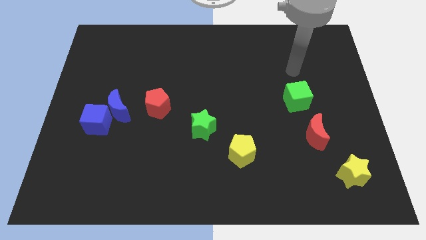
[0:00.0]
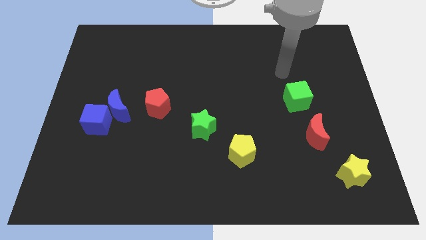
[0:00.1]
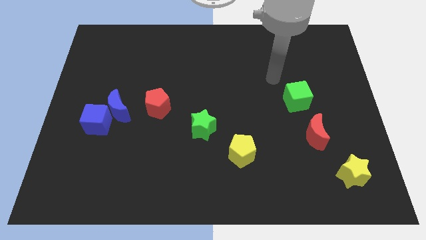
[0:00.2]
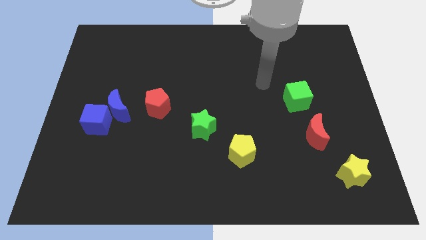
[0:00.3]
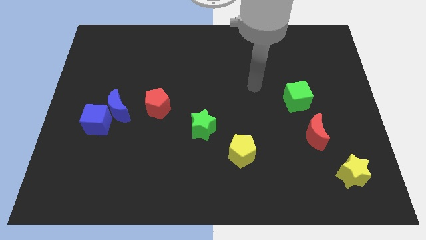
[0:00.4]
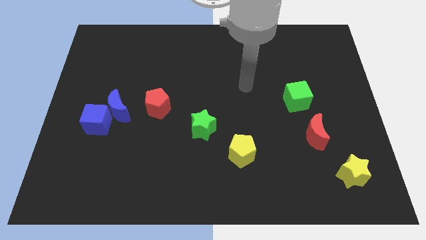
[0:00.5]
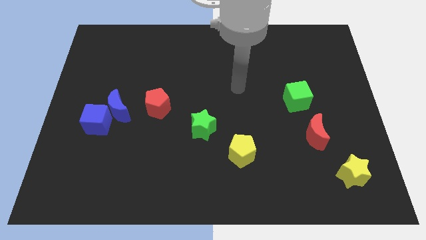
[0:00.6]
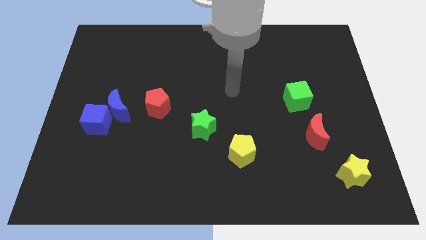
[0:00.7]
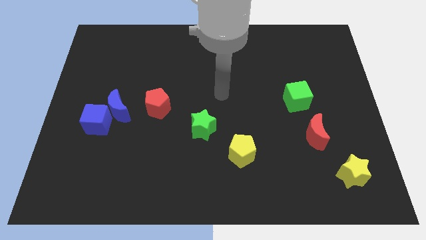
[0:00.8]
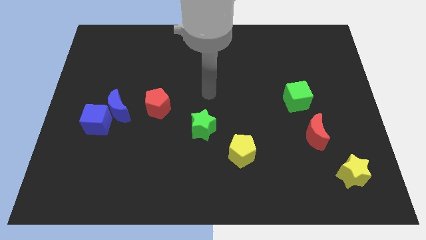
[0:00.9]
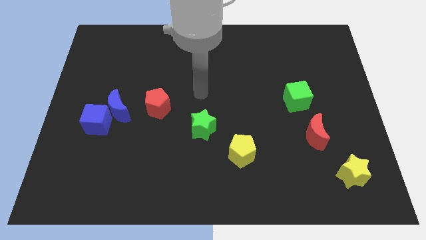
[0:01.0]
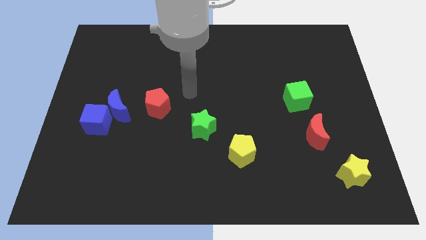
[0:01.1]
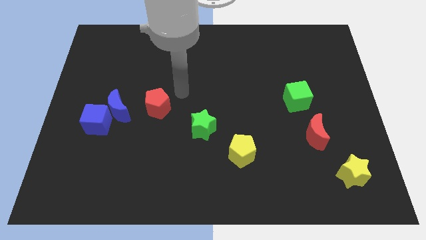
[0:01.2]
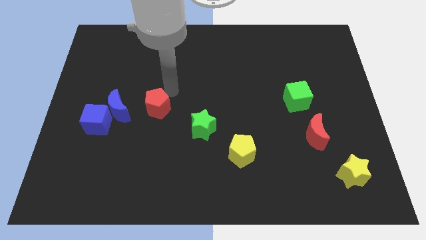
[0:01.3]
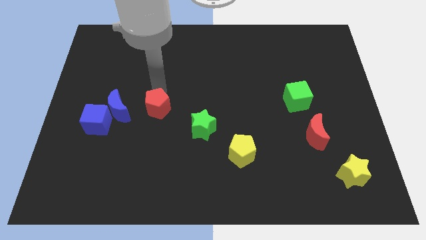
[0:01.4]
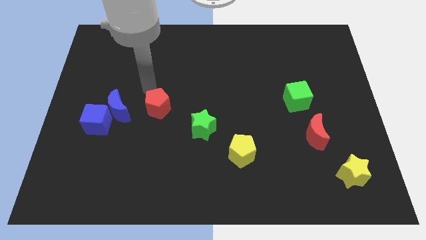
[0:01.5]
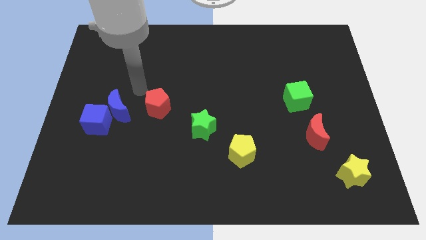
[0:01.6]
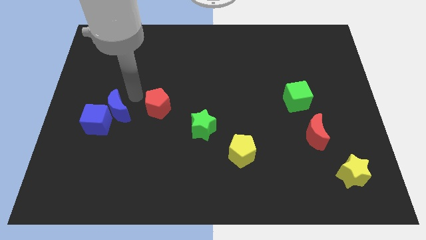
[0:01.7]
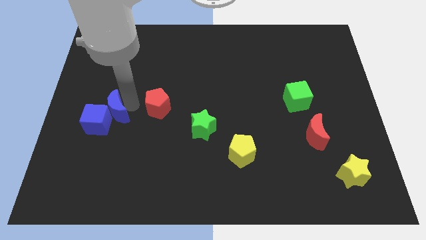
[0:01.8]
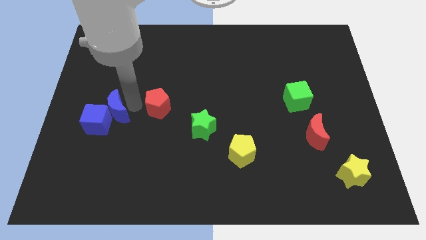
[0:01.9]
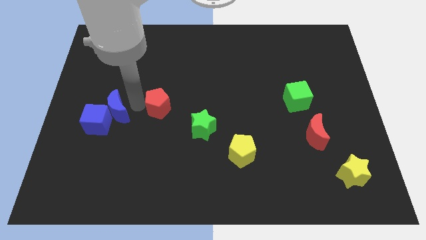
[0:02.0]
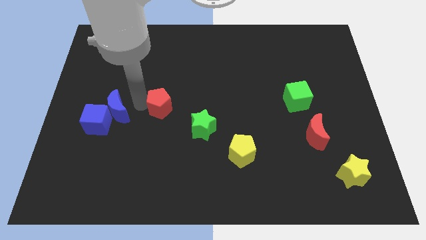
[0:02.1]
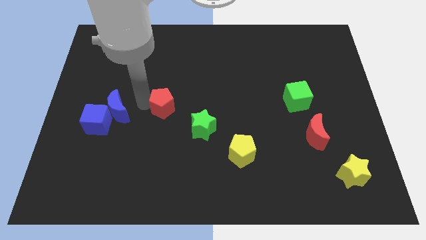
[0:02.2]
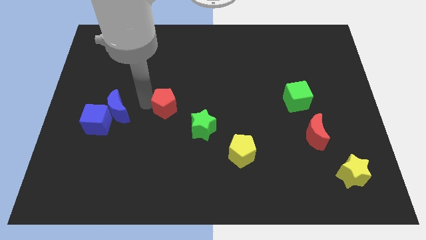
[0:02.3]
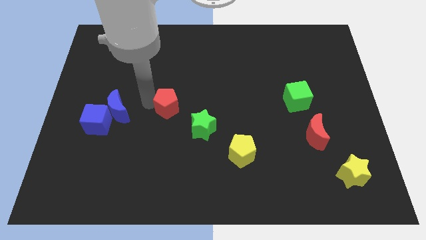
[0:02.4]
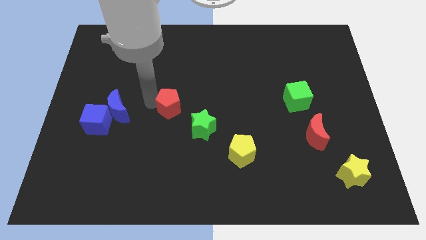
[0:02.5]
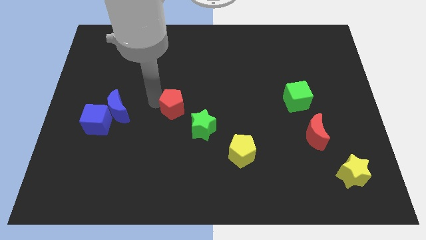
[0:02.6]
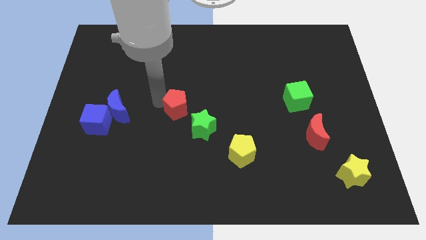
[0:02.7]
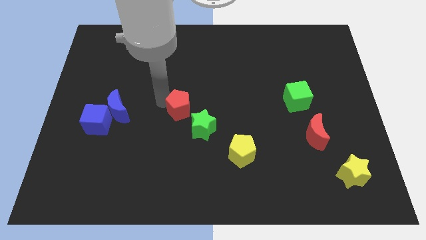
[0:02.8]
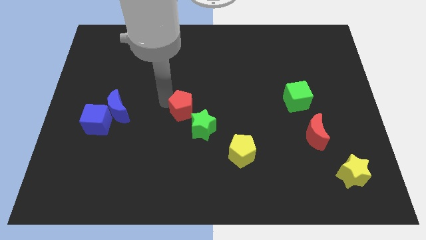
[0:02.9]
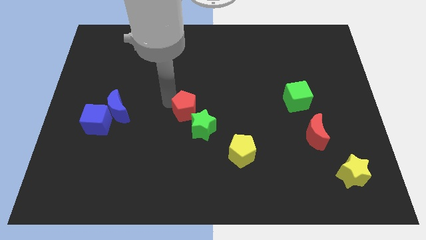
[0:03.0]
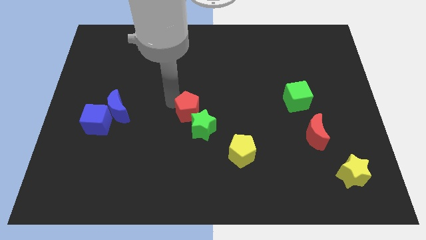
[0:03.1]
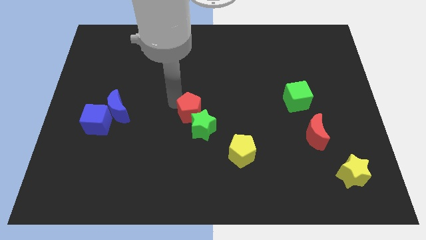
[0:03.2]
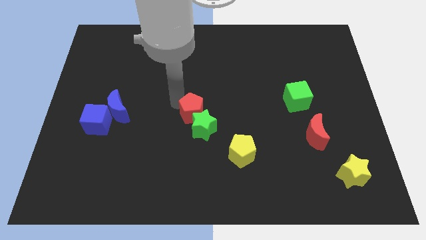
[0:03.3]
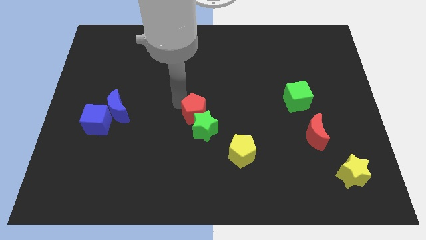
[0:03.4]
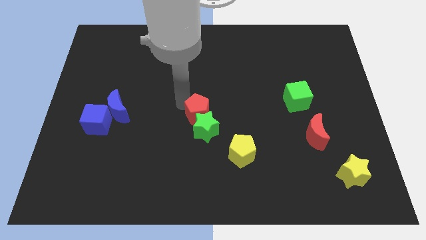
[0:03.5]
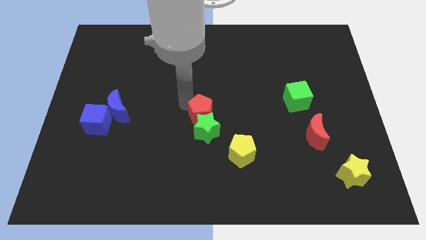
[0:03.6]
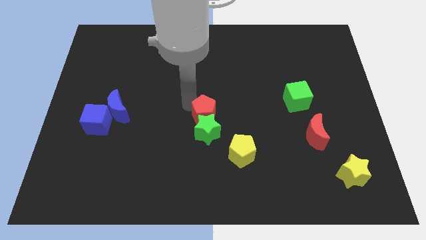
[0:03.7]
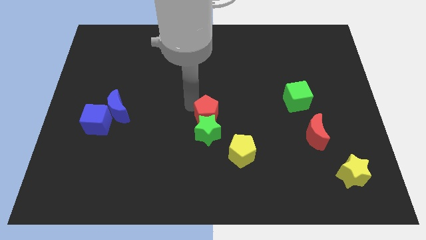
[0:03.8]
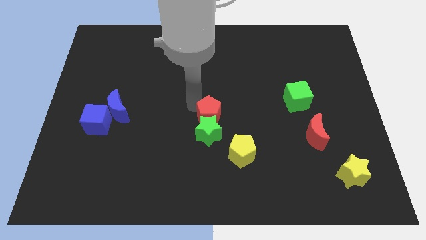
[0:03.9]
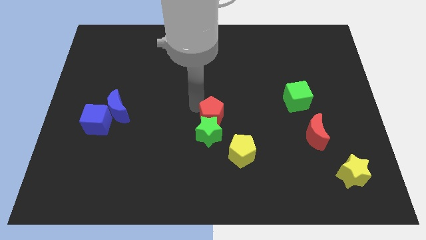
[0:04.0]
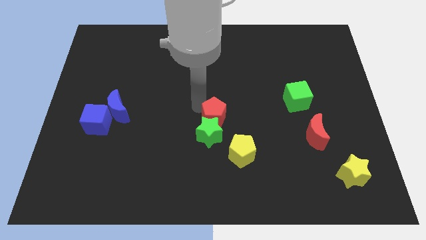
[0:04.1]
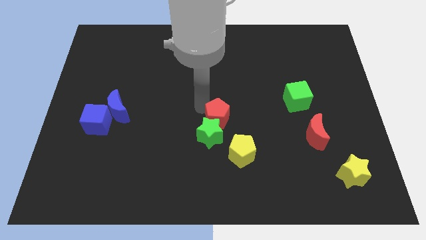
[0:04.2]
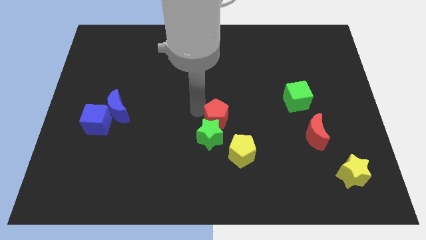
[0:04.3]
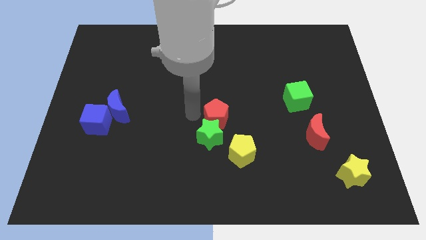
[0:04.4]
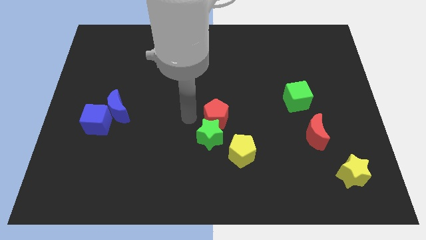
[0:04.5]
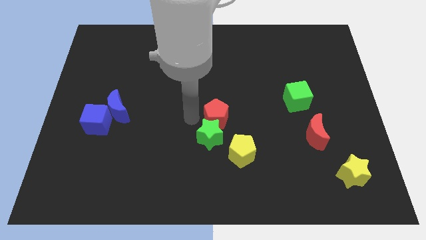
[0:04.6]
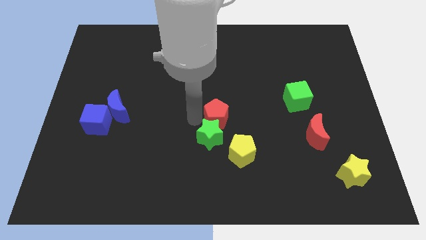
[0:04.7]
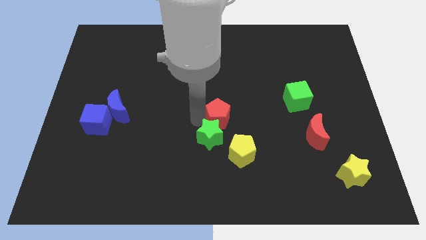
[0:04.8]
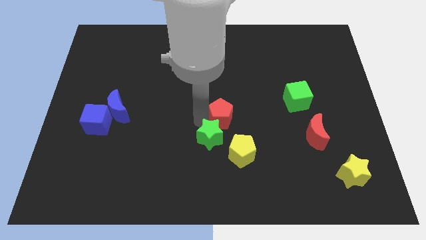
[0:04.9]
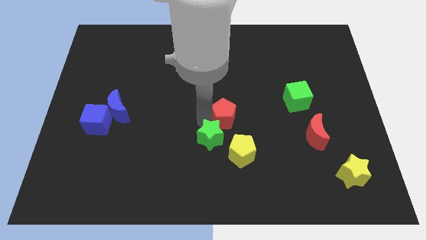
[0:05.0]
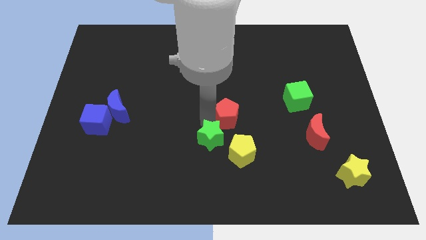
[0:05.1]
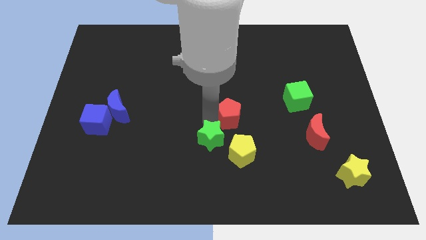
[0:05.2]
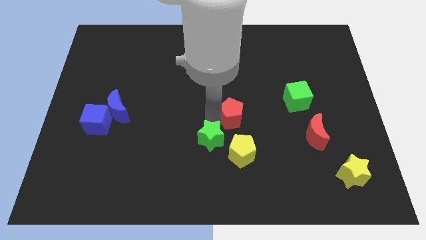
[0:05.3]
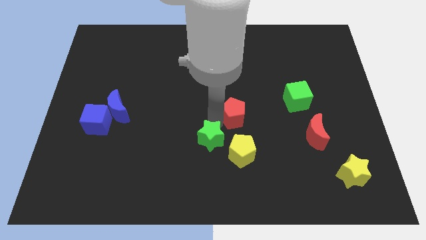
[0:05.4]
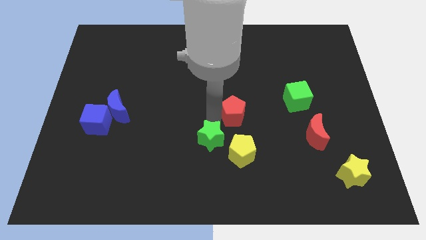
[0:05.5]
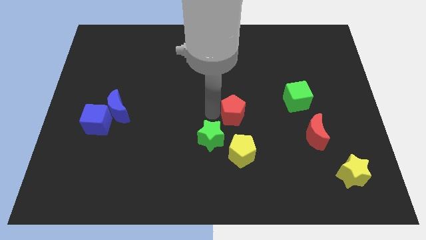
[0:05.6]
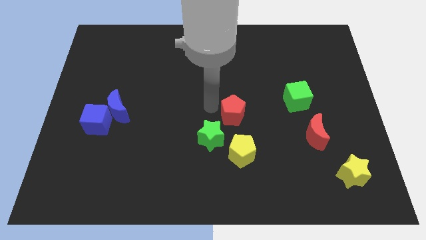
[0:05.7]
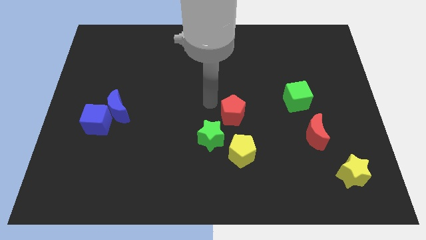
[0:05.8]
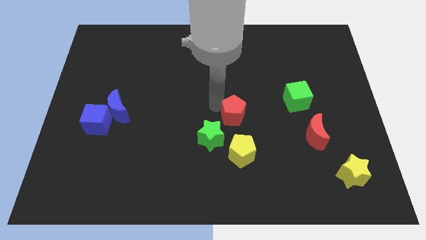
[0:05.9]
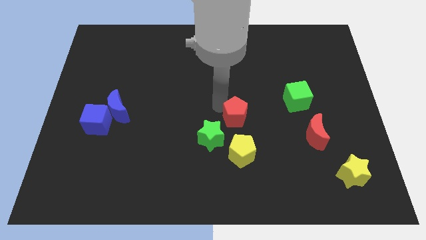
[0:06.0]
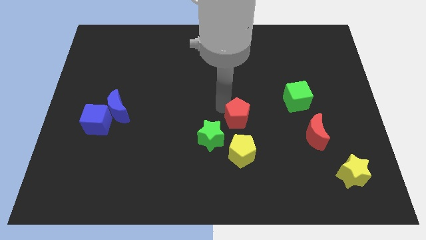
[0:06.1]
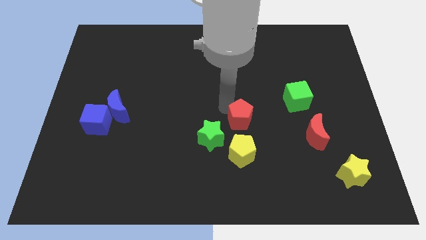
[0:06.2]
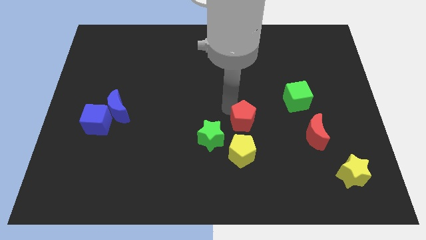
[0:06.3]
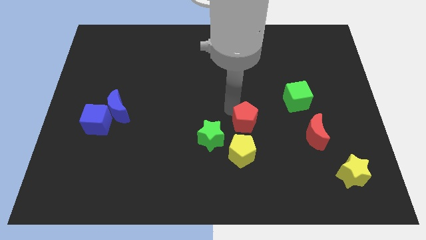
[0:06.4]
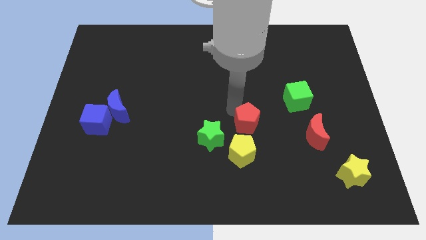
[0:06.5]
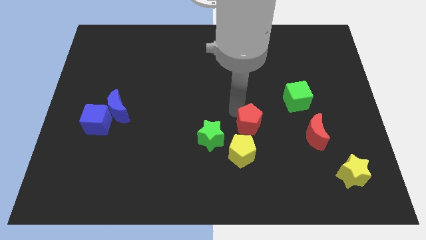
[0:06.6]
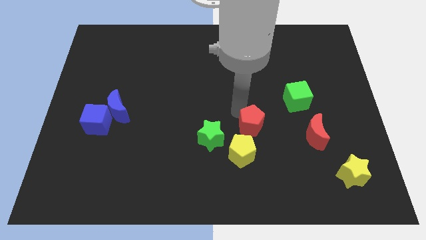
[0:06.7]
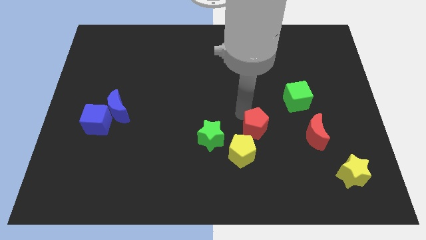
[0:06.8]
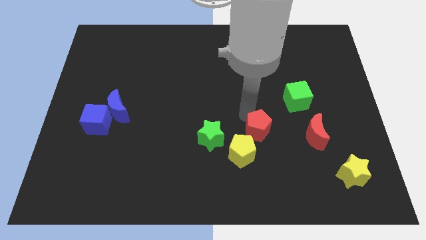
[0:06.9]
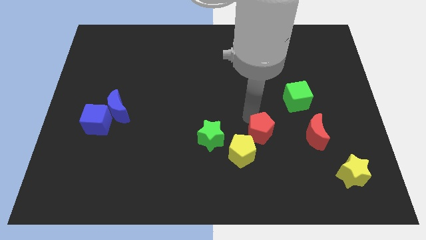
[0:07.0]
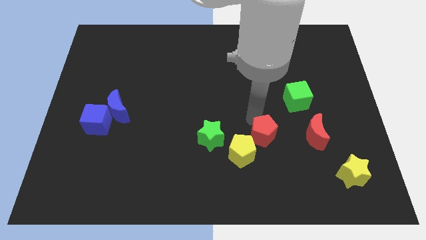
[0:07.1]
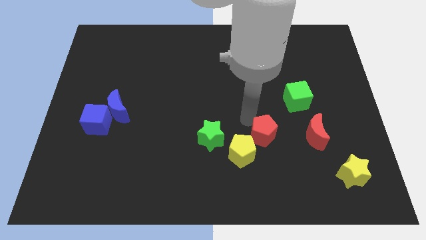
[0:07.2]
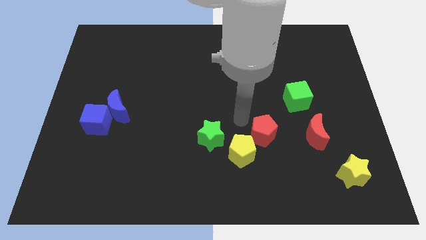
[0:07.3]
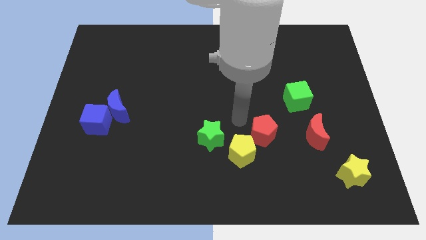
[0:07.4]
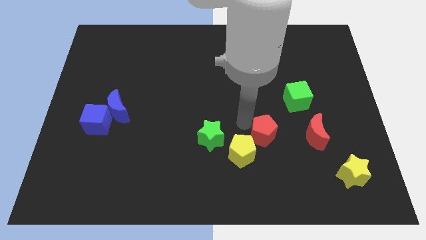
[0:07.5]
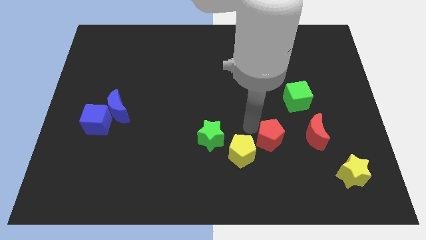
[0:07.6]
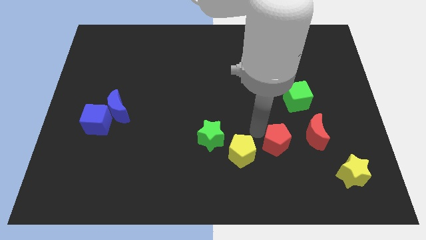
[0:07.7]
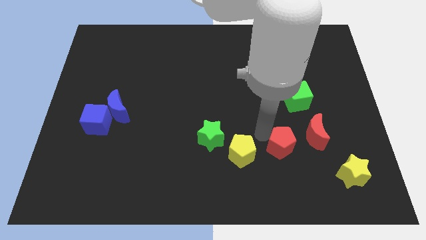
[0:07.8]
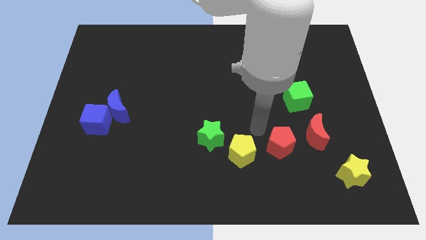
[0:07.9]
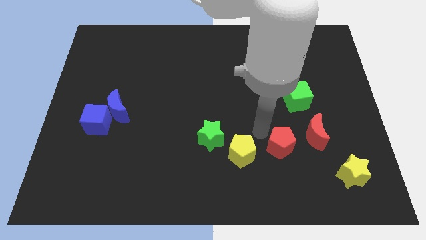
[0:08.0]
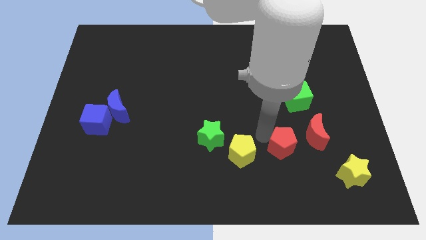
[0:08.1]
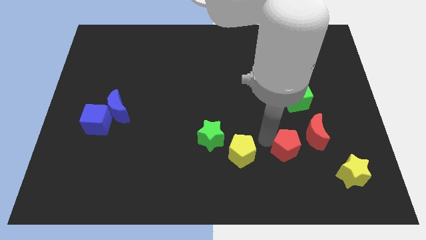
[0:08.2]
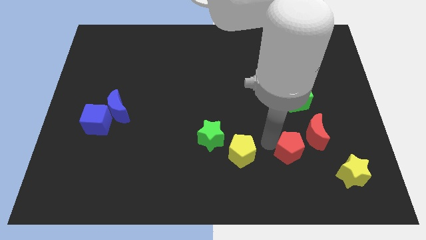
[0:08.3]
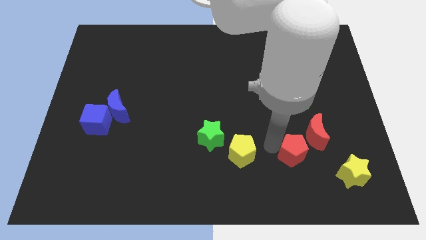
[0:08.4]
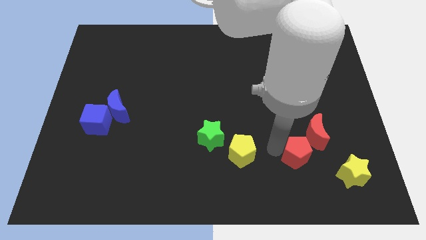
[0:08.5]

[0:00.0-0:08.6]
push the red pentagon below the red moon
